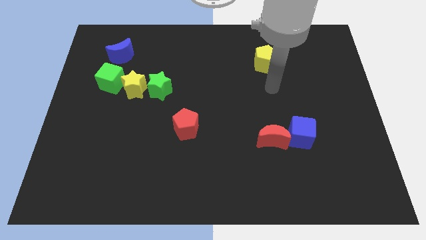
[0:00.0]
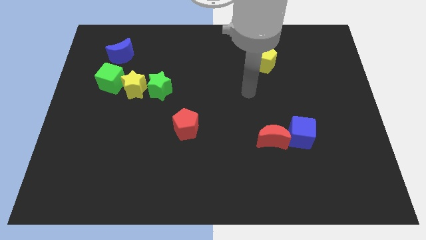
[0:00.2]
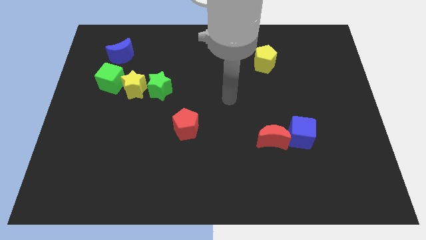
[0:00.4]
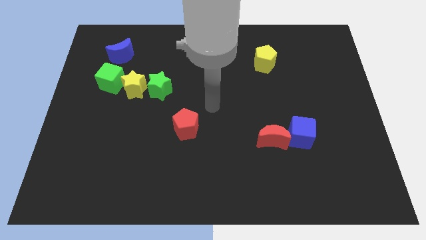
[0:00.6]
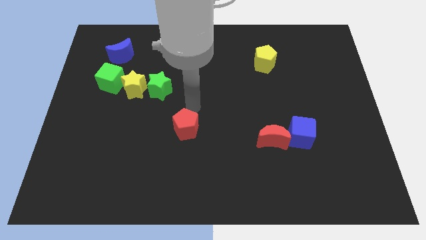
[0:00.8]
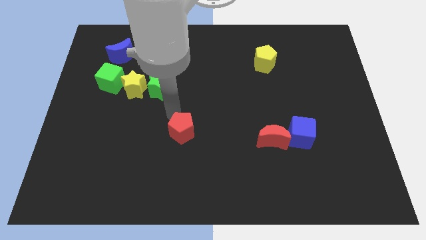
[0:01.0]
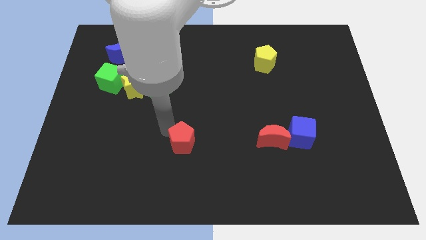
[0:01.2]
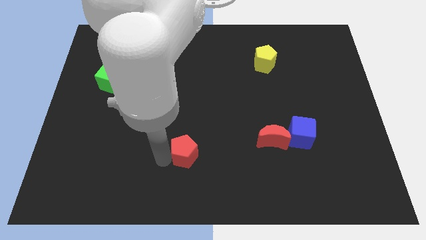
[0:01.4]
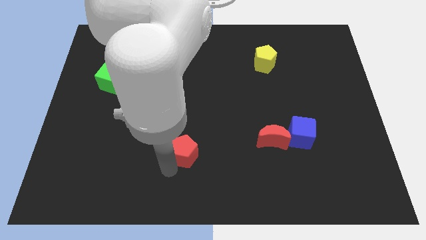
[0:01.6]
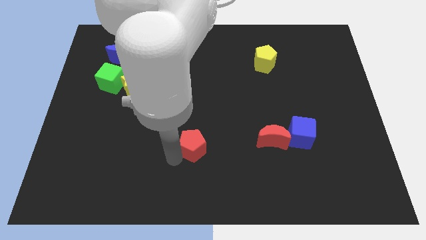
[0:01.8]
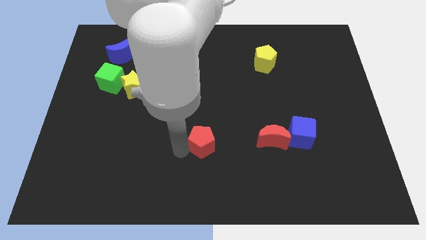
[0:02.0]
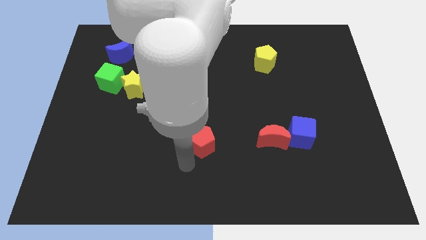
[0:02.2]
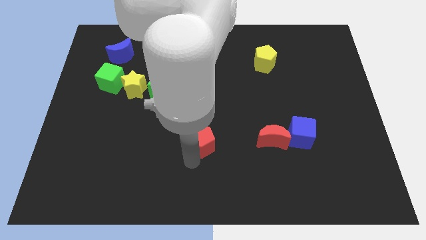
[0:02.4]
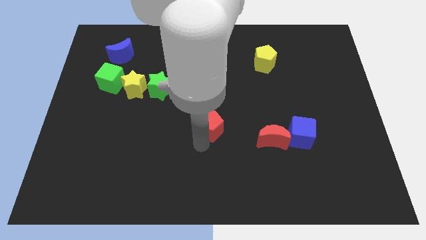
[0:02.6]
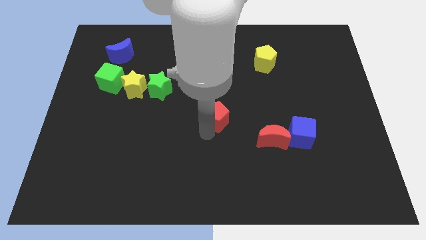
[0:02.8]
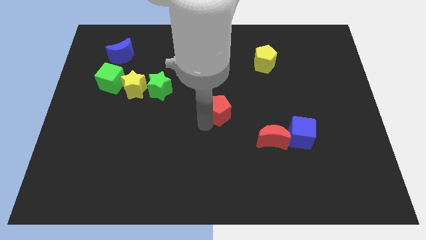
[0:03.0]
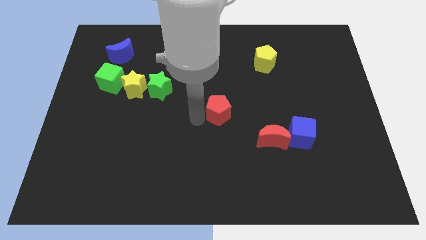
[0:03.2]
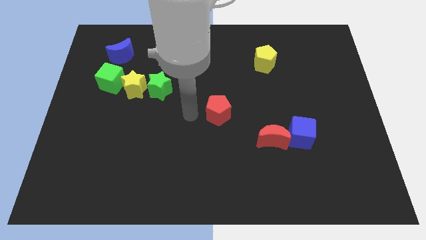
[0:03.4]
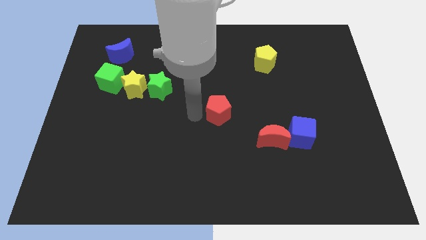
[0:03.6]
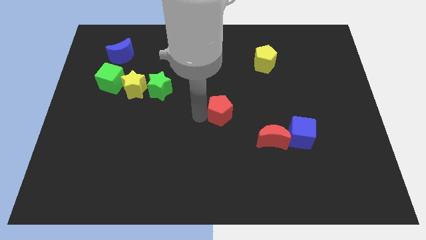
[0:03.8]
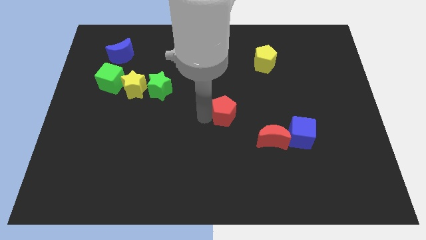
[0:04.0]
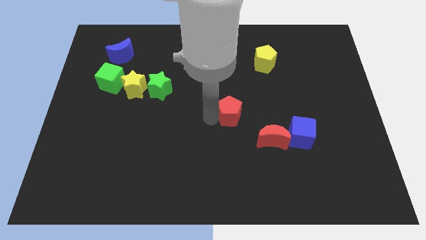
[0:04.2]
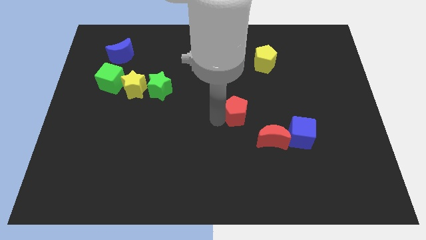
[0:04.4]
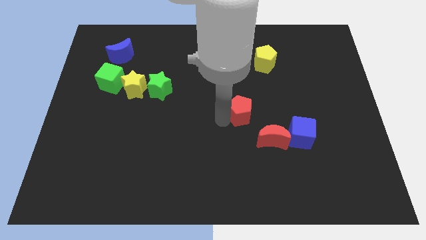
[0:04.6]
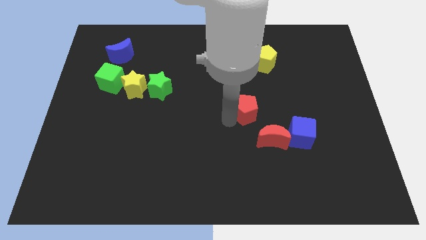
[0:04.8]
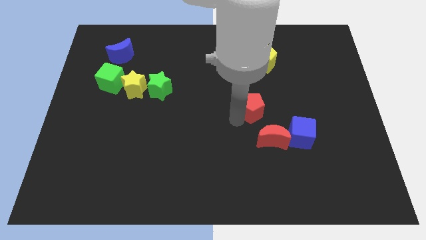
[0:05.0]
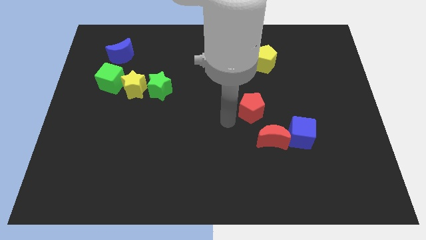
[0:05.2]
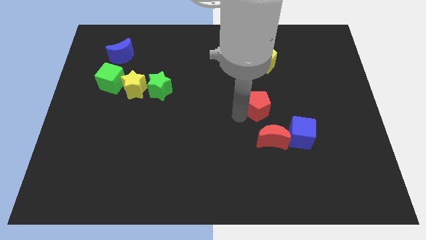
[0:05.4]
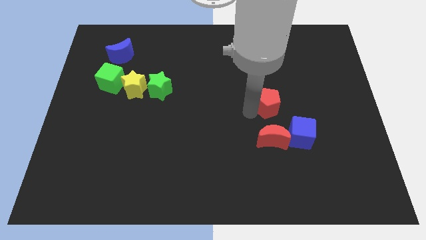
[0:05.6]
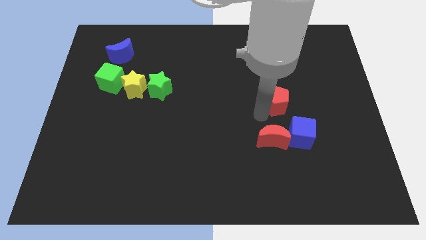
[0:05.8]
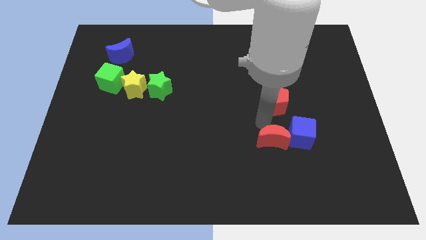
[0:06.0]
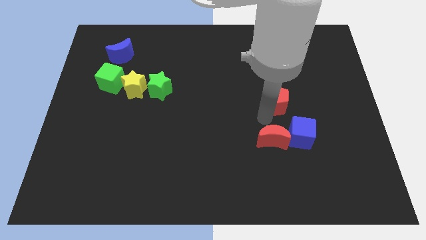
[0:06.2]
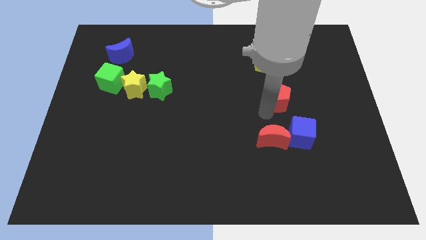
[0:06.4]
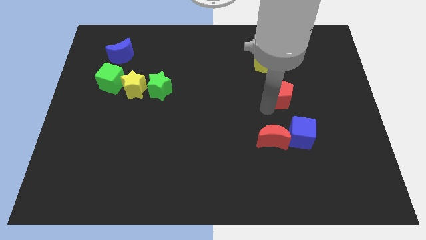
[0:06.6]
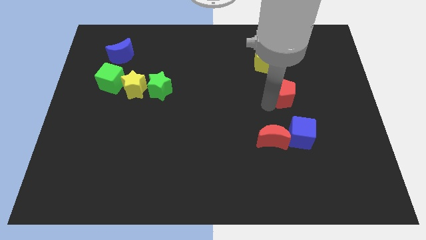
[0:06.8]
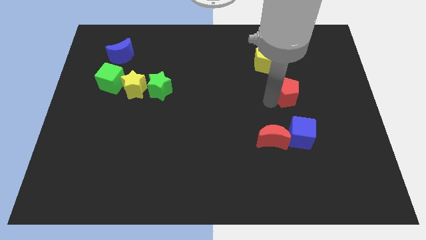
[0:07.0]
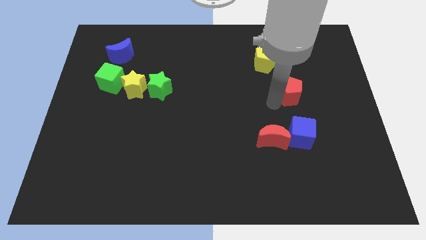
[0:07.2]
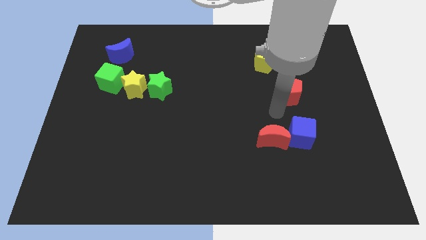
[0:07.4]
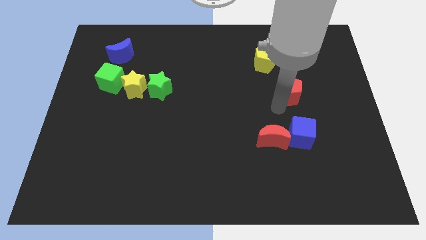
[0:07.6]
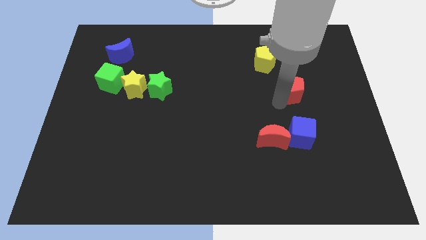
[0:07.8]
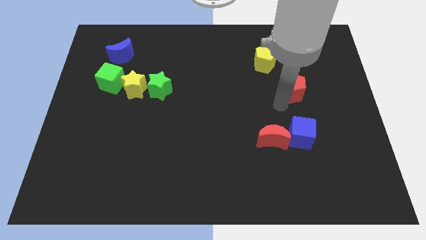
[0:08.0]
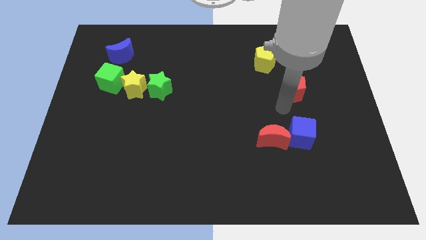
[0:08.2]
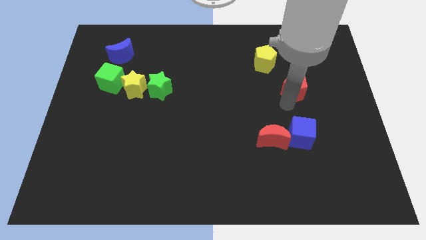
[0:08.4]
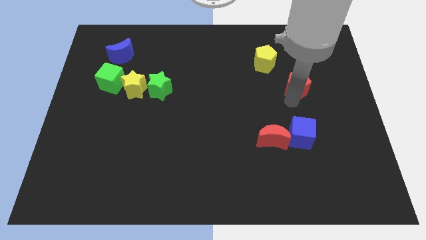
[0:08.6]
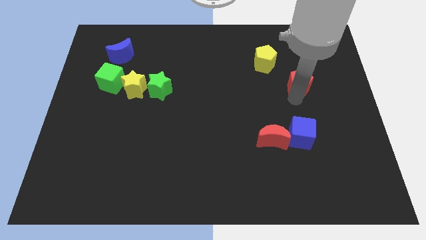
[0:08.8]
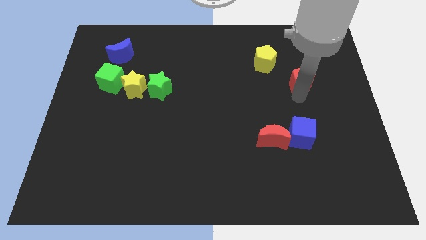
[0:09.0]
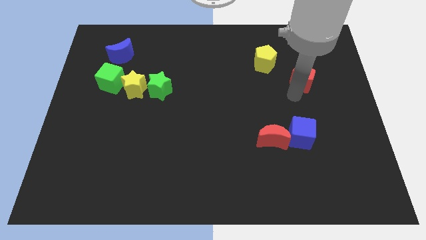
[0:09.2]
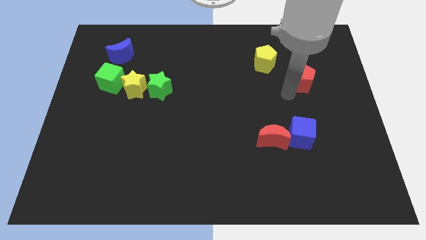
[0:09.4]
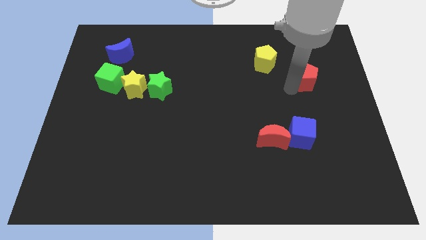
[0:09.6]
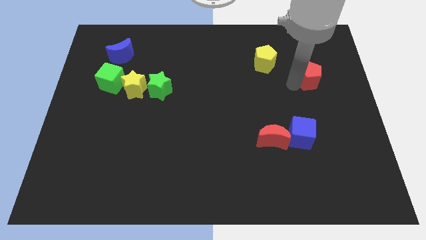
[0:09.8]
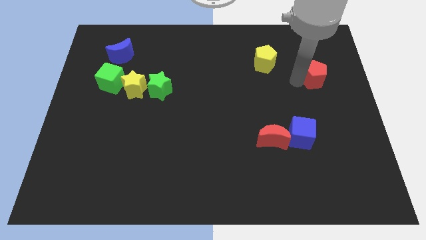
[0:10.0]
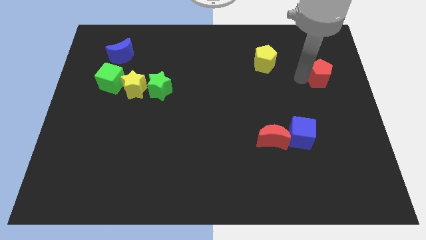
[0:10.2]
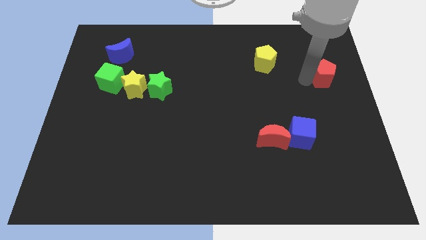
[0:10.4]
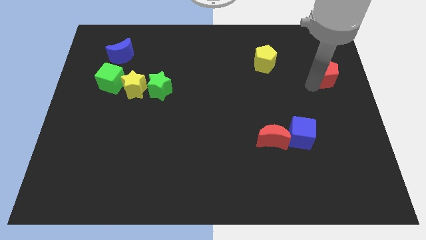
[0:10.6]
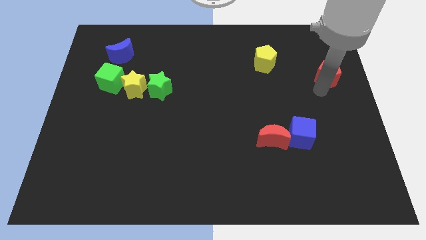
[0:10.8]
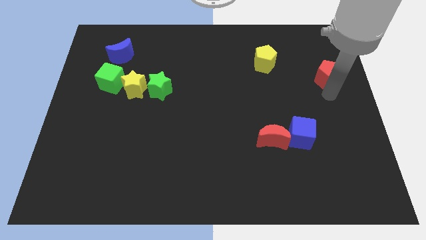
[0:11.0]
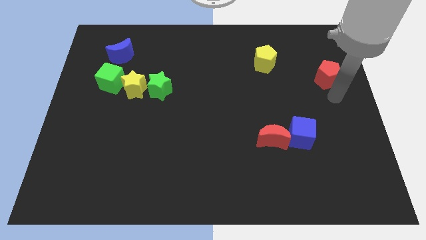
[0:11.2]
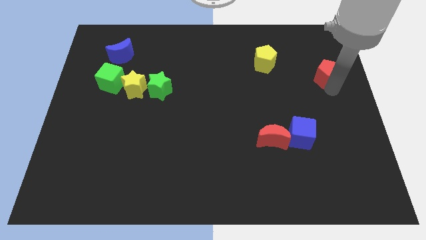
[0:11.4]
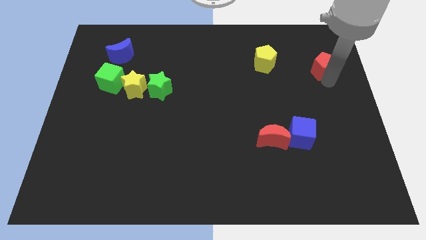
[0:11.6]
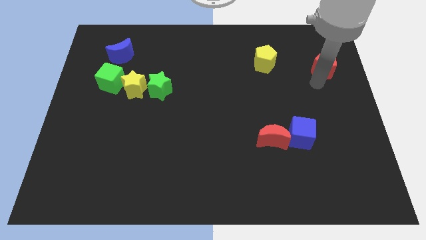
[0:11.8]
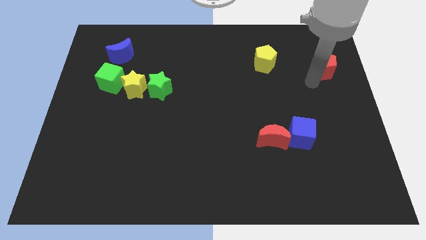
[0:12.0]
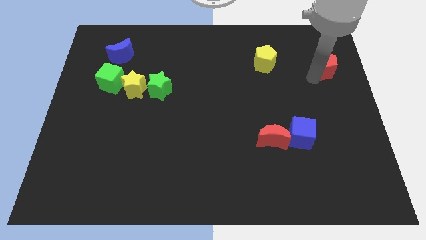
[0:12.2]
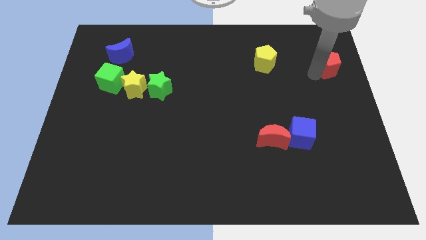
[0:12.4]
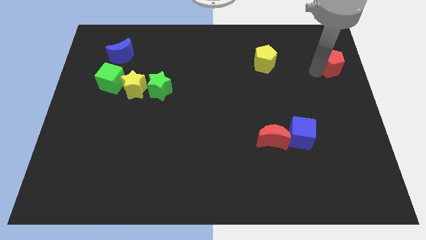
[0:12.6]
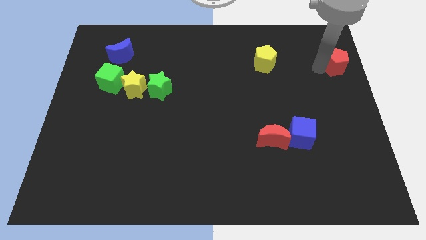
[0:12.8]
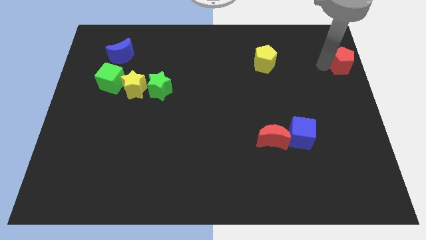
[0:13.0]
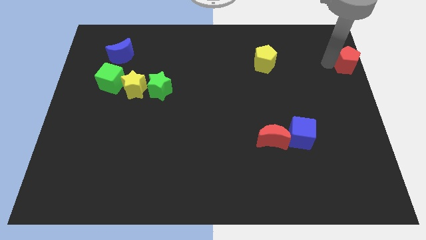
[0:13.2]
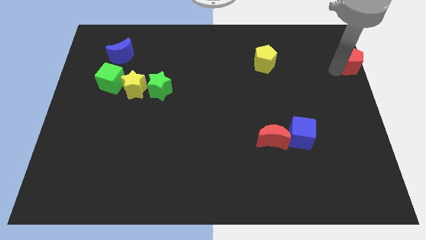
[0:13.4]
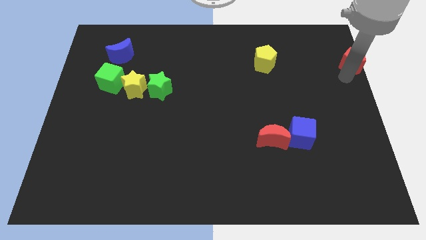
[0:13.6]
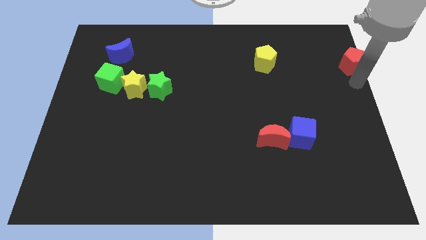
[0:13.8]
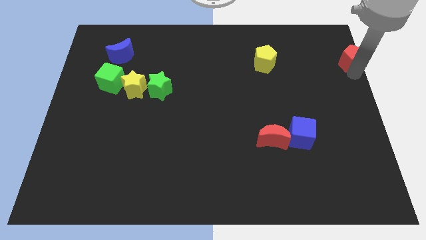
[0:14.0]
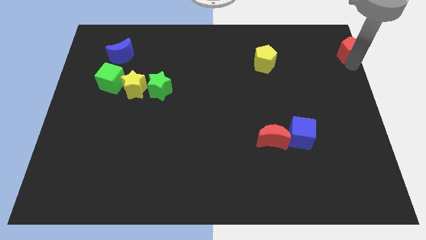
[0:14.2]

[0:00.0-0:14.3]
slide the red pentagon to the upper right corner
